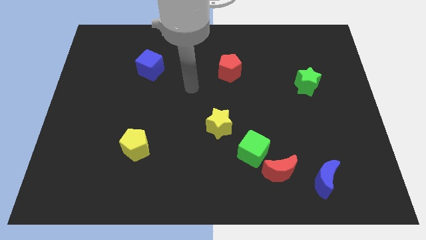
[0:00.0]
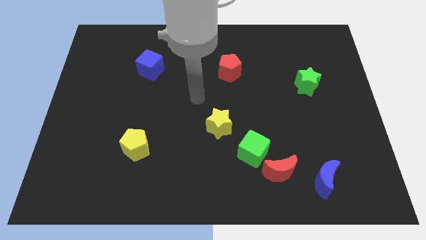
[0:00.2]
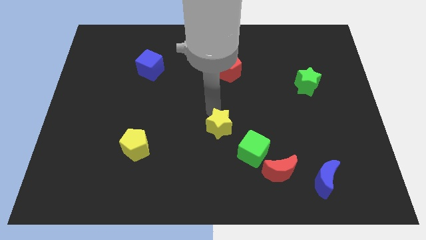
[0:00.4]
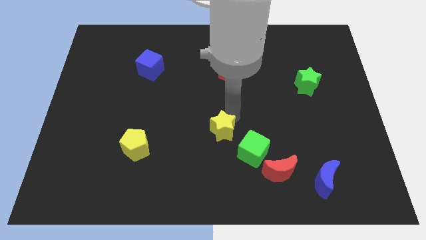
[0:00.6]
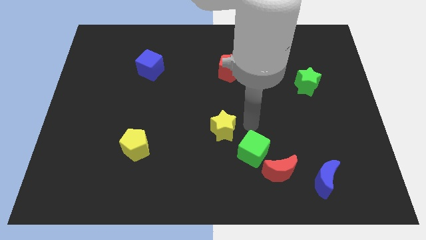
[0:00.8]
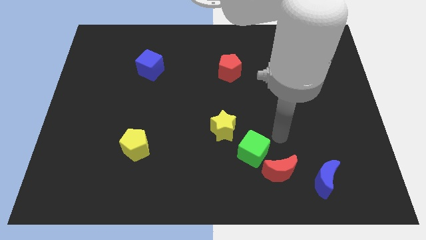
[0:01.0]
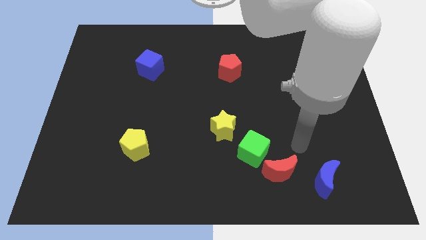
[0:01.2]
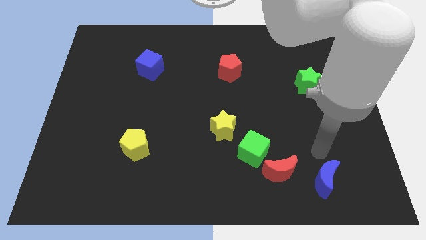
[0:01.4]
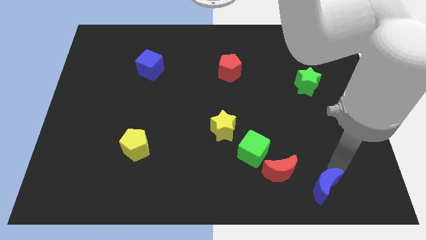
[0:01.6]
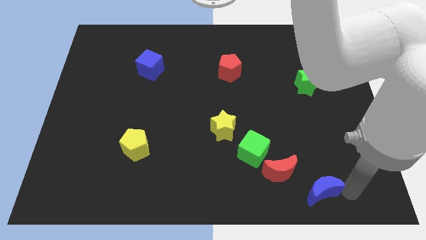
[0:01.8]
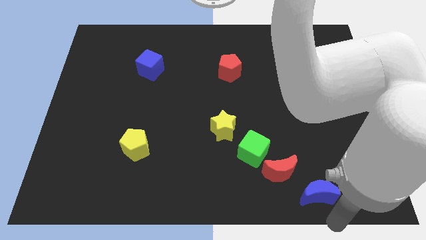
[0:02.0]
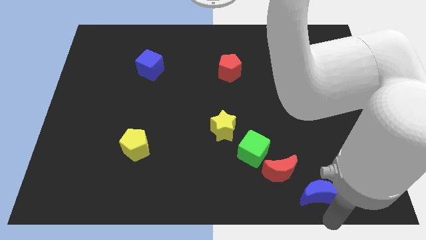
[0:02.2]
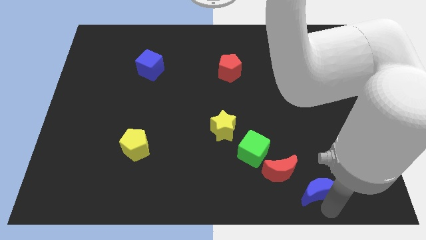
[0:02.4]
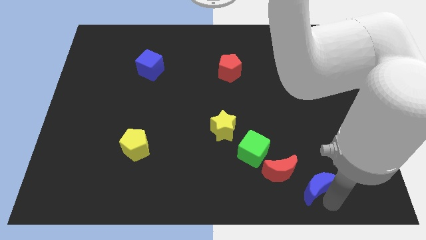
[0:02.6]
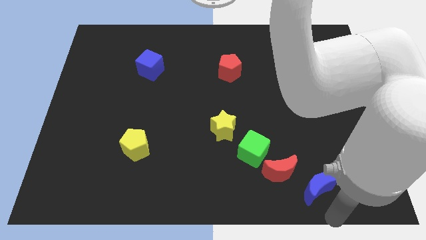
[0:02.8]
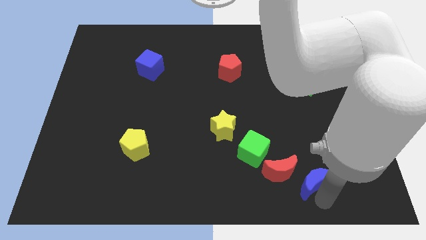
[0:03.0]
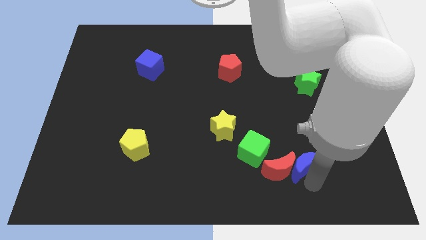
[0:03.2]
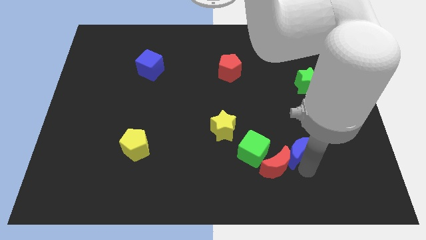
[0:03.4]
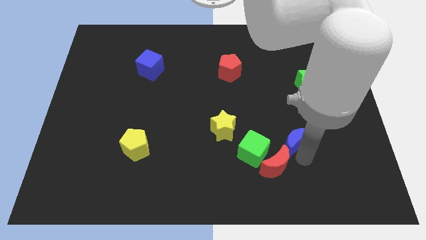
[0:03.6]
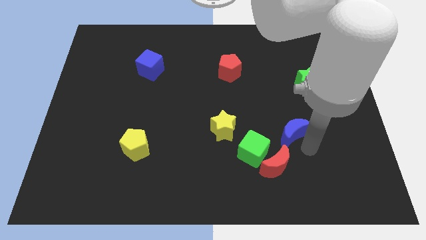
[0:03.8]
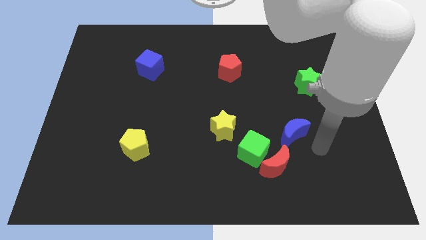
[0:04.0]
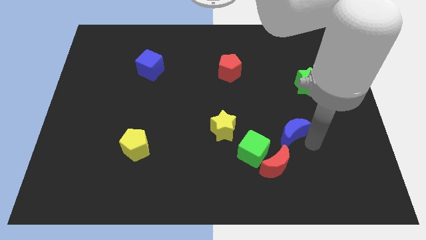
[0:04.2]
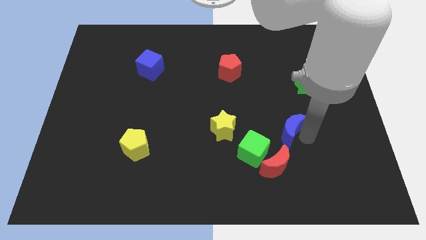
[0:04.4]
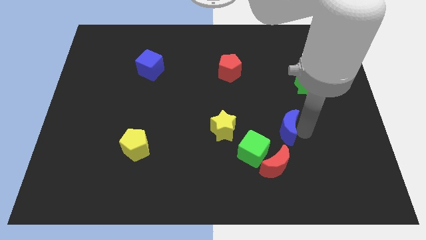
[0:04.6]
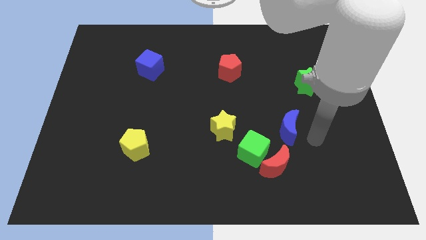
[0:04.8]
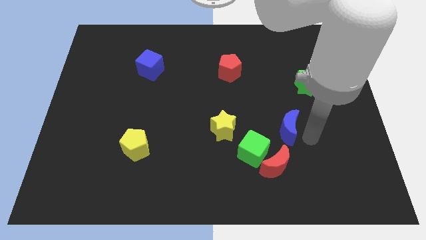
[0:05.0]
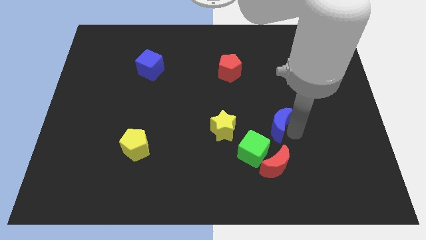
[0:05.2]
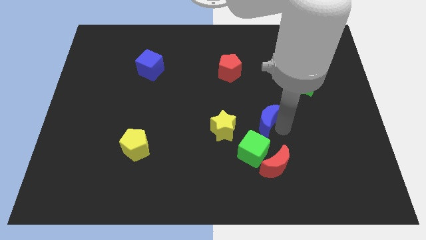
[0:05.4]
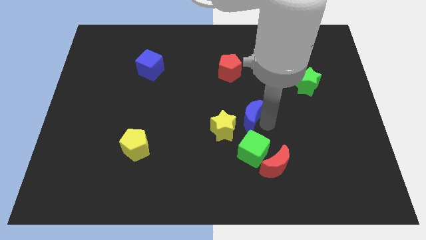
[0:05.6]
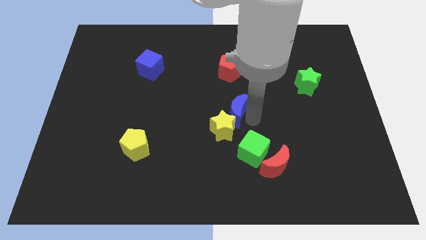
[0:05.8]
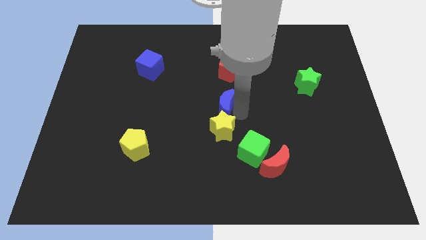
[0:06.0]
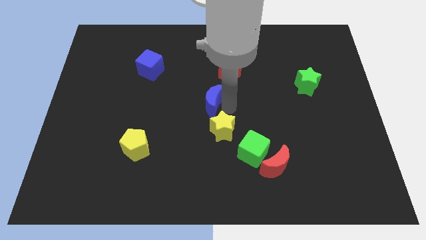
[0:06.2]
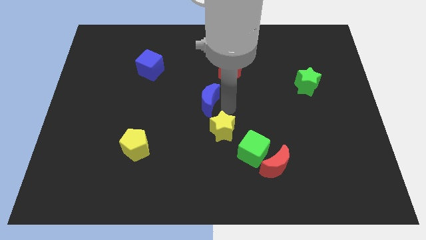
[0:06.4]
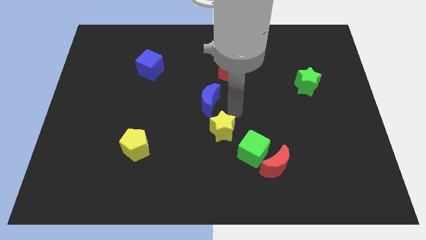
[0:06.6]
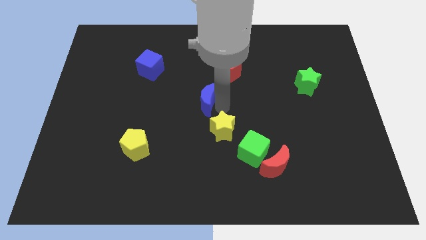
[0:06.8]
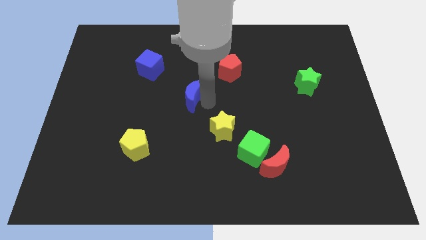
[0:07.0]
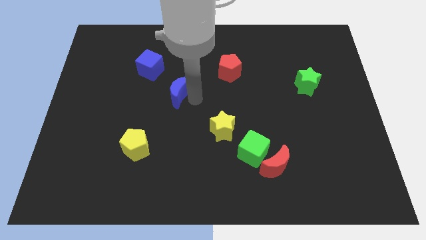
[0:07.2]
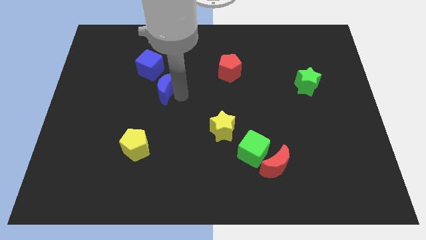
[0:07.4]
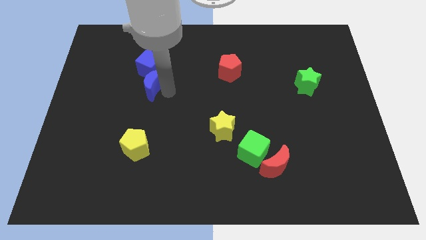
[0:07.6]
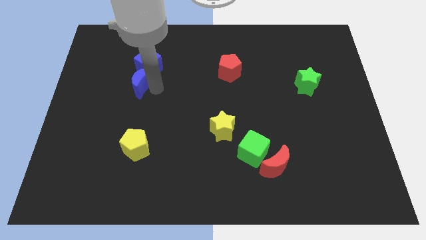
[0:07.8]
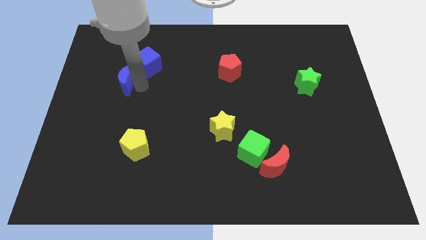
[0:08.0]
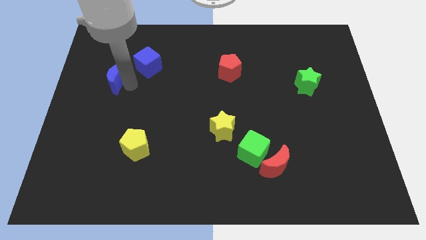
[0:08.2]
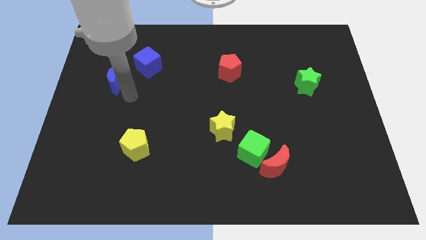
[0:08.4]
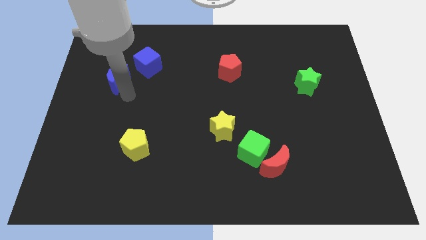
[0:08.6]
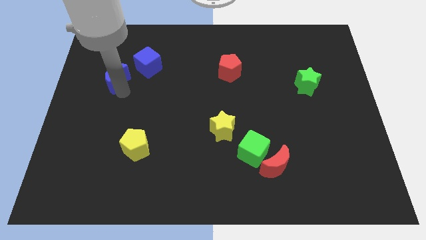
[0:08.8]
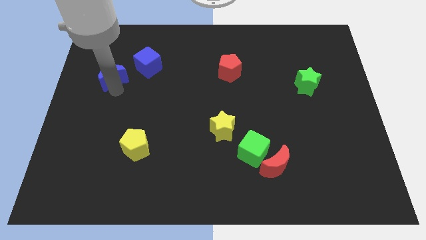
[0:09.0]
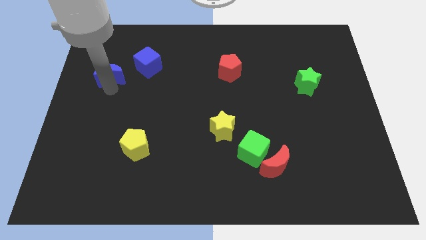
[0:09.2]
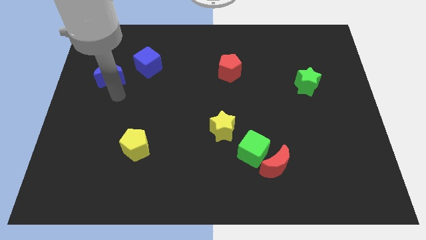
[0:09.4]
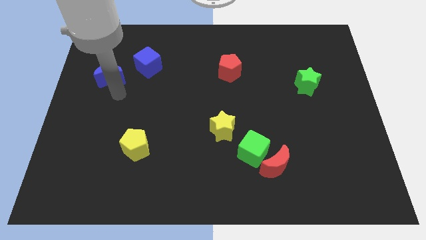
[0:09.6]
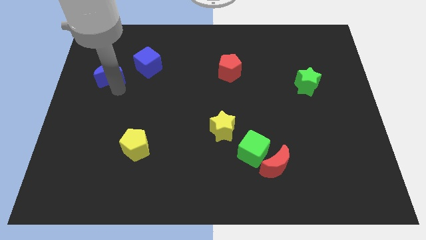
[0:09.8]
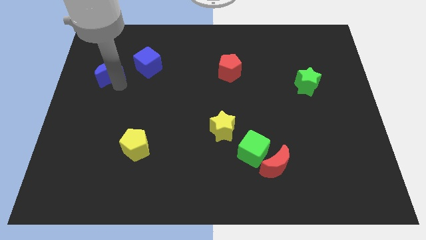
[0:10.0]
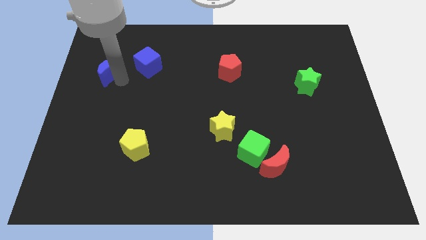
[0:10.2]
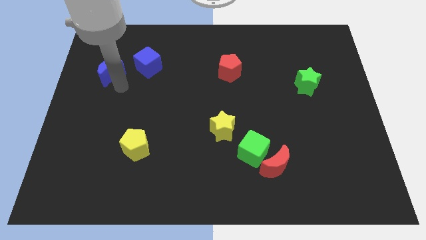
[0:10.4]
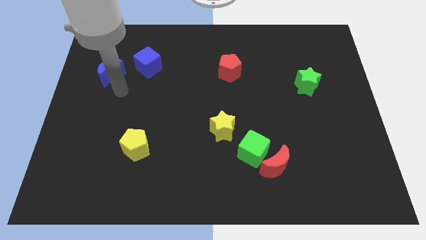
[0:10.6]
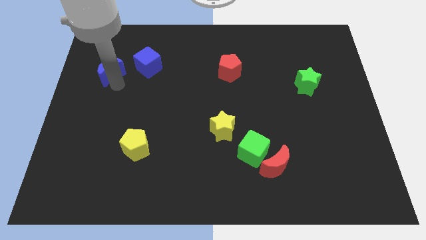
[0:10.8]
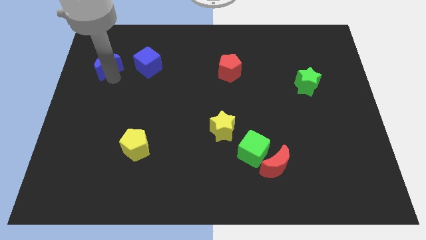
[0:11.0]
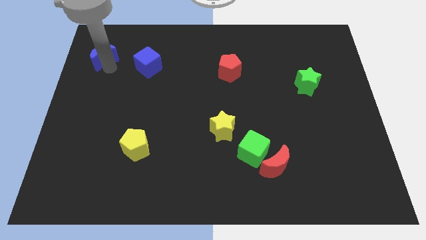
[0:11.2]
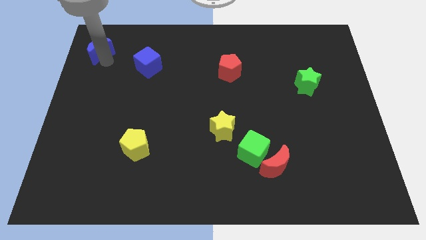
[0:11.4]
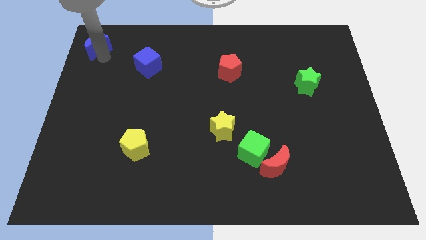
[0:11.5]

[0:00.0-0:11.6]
put the blue moon to the top left of the board

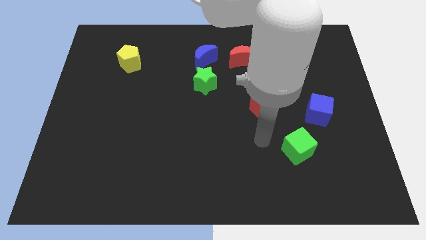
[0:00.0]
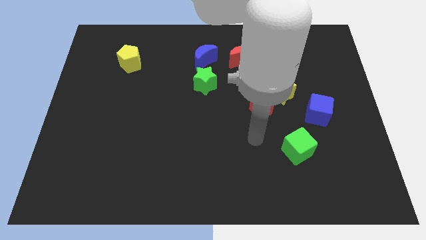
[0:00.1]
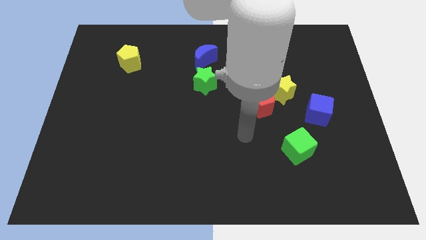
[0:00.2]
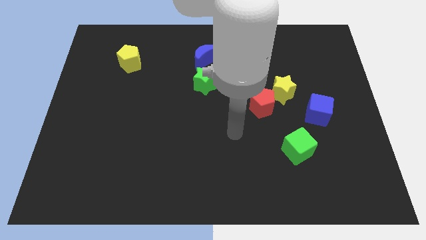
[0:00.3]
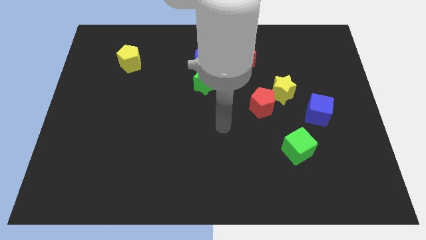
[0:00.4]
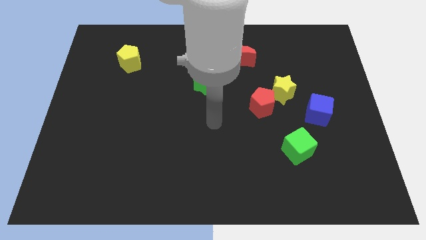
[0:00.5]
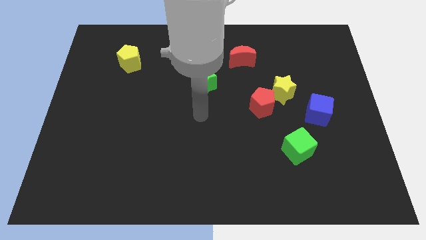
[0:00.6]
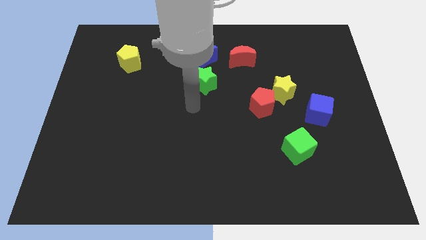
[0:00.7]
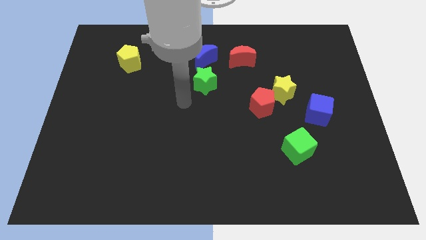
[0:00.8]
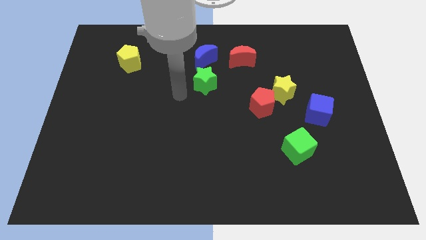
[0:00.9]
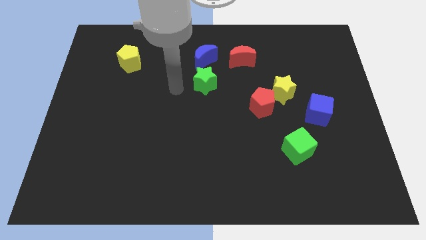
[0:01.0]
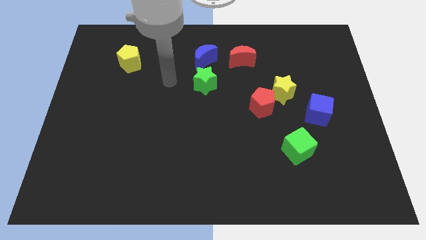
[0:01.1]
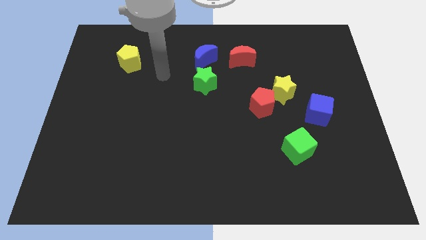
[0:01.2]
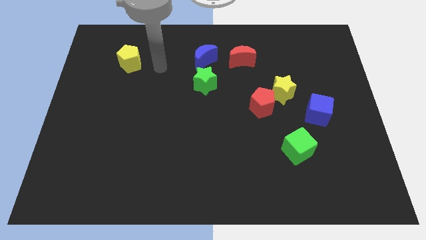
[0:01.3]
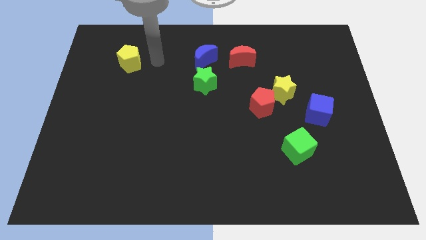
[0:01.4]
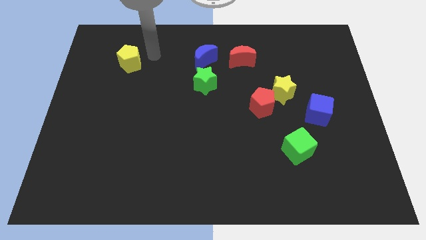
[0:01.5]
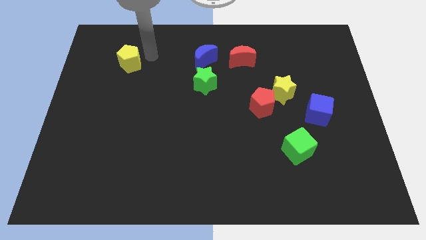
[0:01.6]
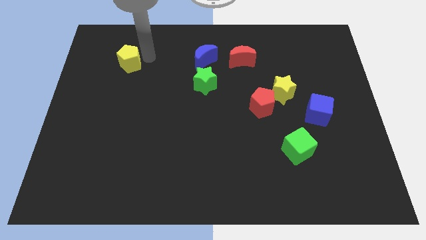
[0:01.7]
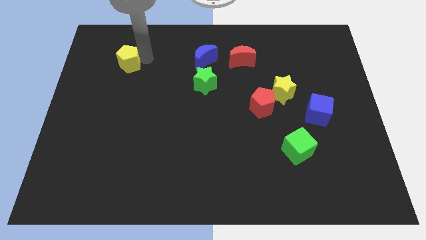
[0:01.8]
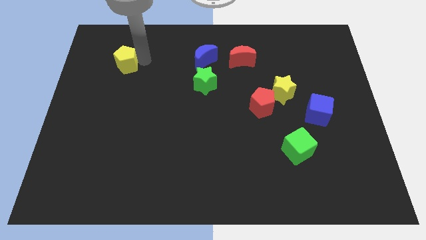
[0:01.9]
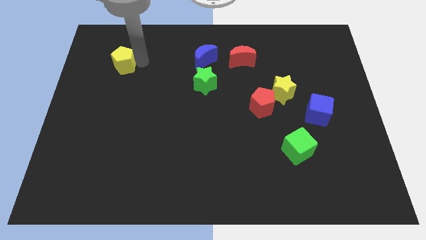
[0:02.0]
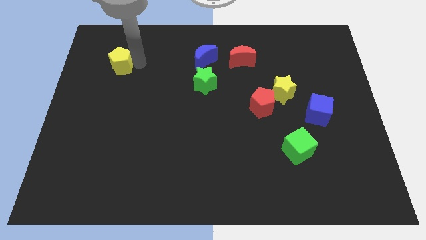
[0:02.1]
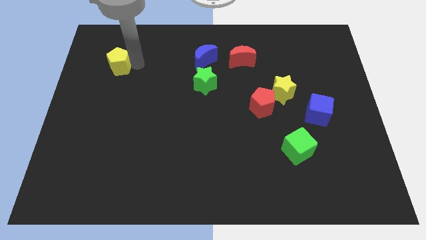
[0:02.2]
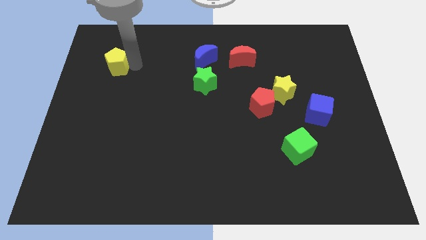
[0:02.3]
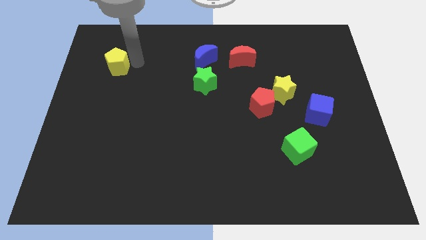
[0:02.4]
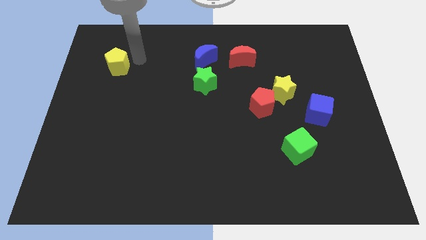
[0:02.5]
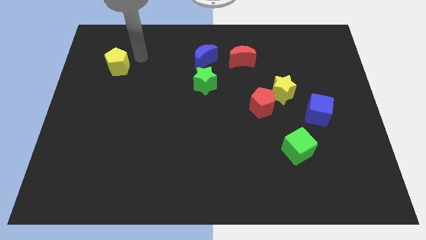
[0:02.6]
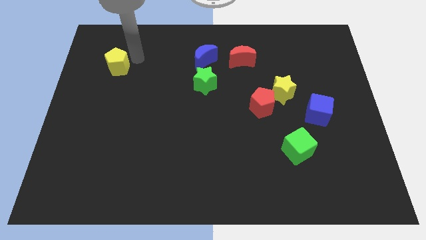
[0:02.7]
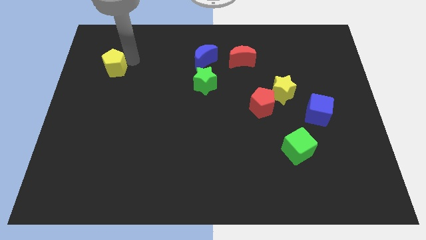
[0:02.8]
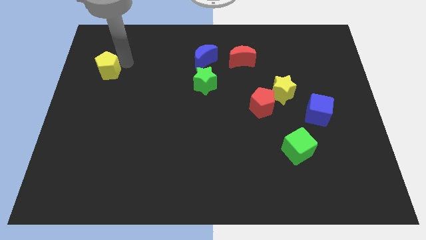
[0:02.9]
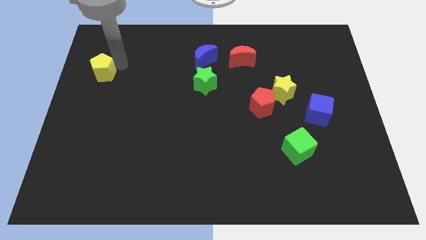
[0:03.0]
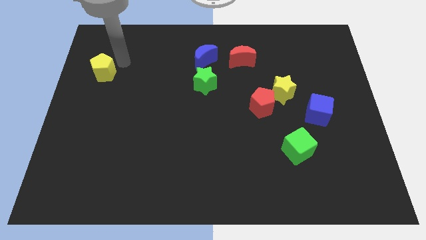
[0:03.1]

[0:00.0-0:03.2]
push the yellow pentagon to the left side
